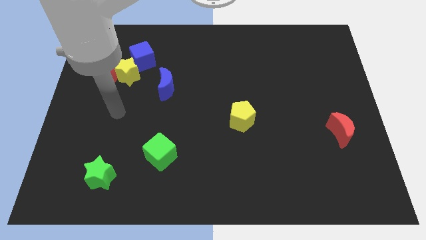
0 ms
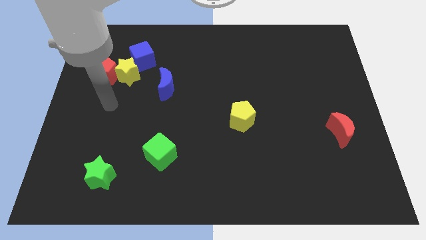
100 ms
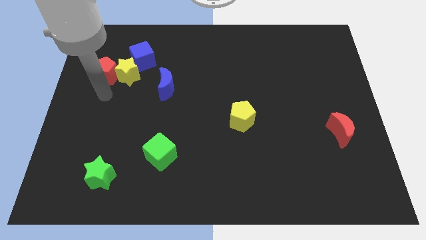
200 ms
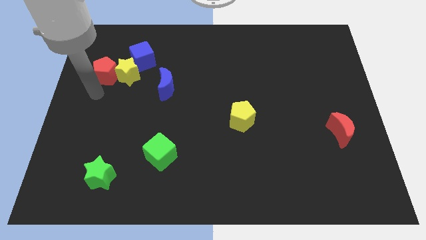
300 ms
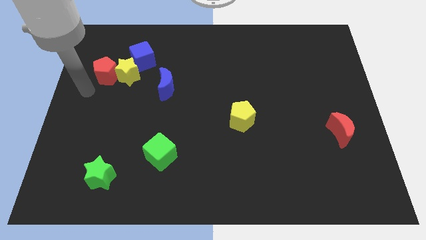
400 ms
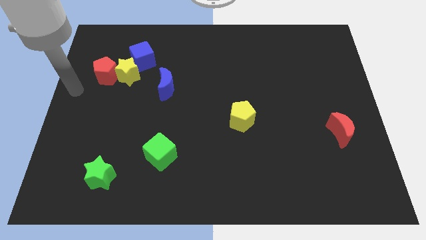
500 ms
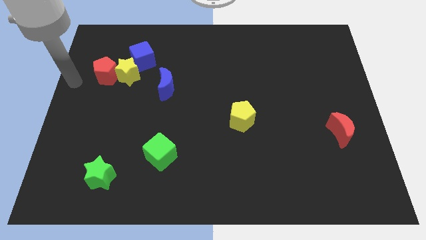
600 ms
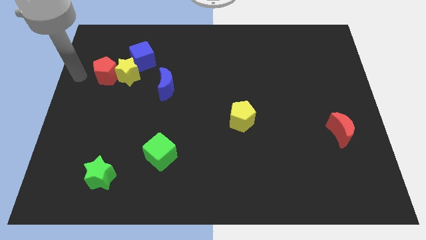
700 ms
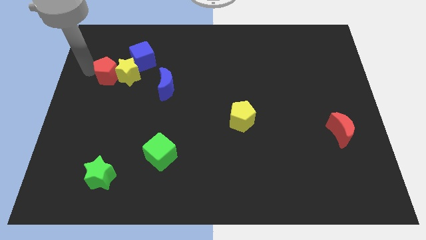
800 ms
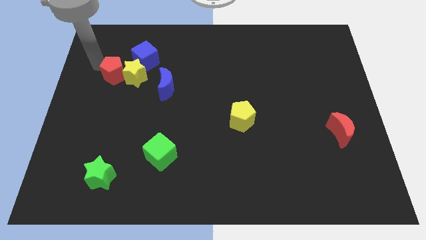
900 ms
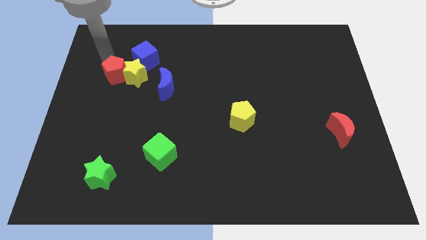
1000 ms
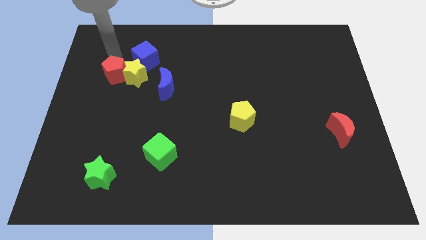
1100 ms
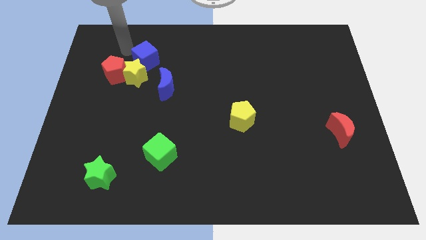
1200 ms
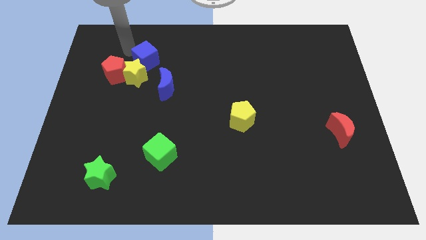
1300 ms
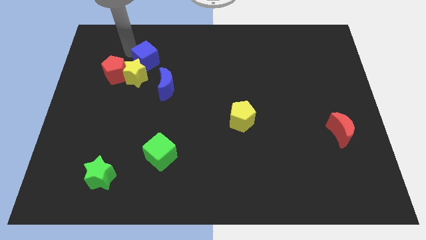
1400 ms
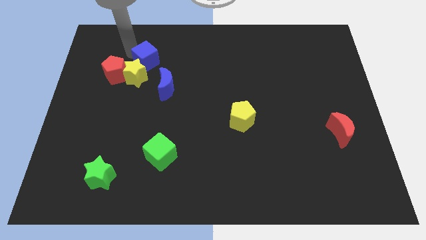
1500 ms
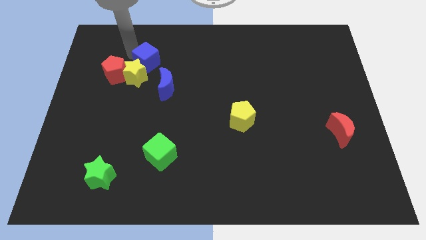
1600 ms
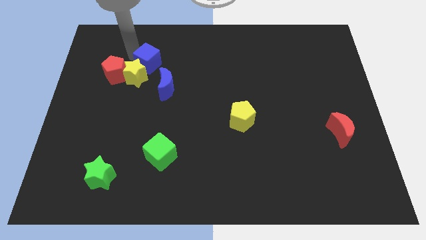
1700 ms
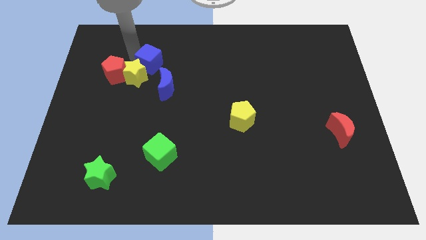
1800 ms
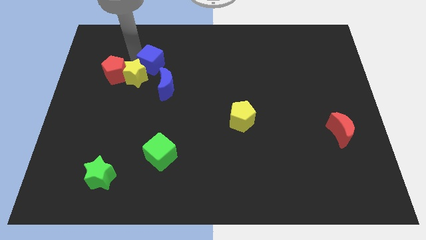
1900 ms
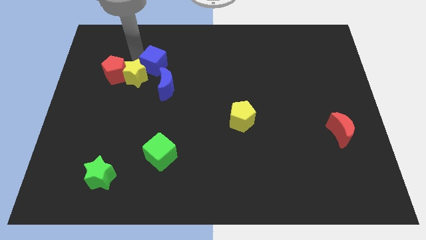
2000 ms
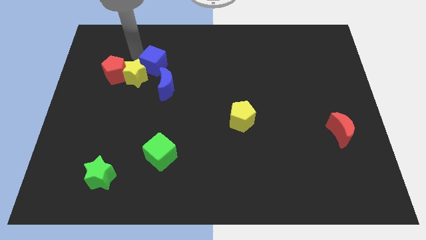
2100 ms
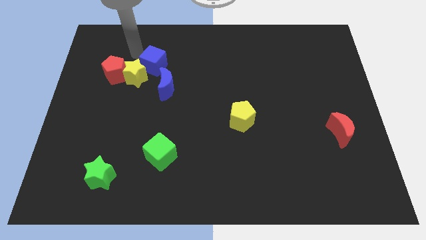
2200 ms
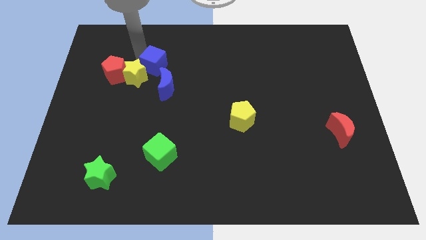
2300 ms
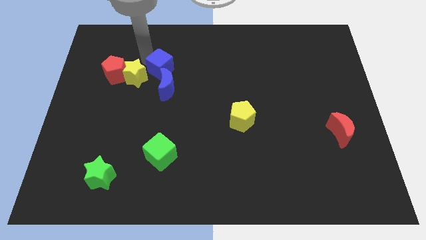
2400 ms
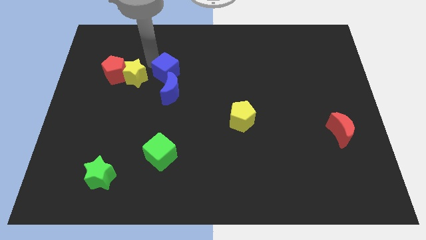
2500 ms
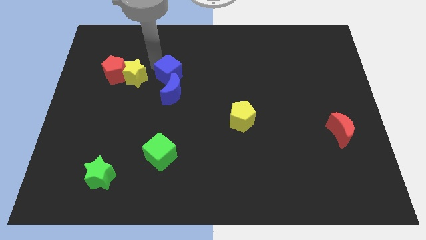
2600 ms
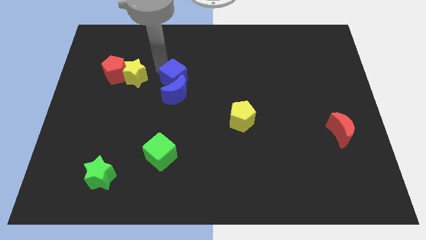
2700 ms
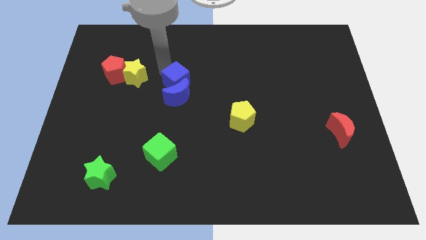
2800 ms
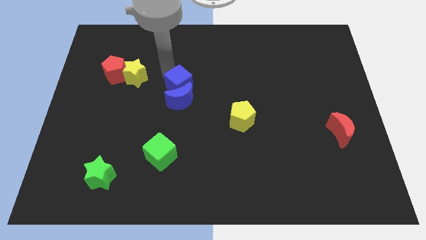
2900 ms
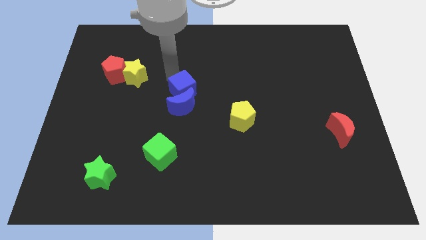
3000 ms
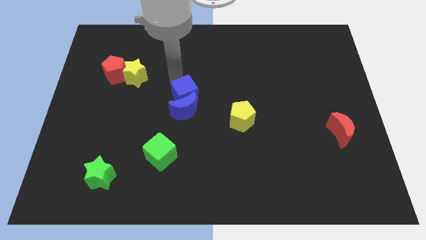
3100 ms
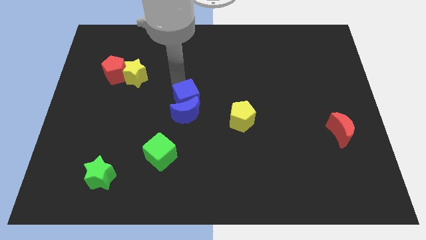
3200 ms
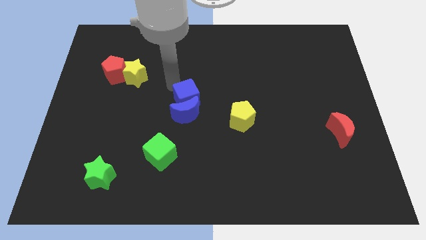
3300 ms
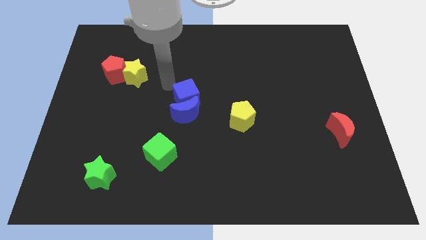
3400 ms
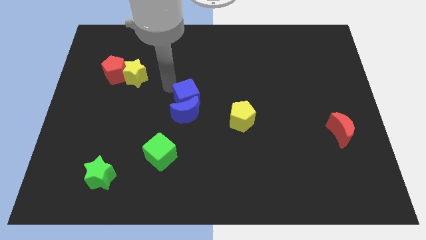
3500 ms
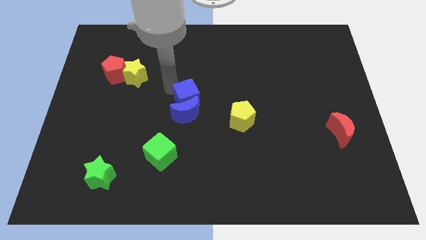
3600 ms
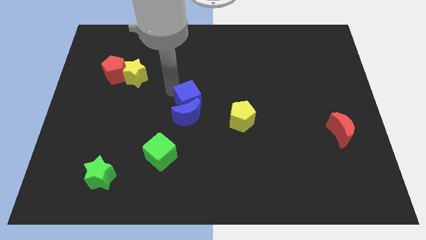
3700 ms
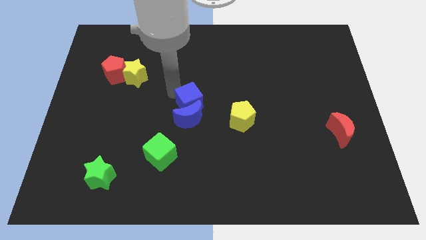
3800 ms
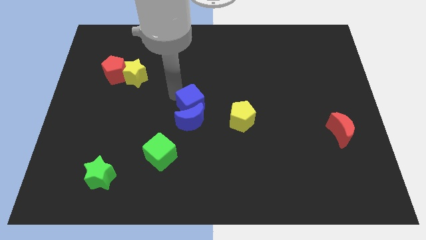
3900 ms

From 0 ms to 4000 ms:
move the blue cube diagonally down and to the right

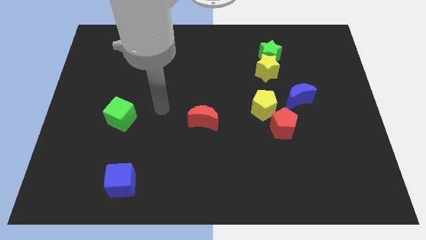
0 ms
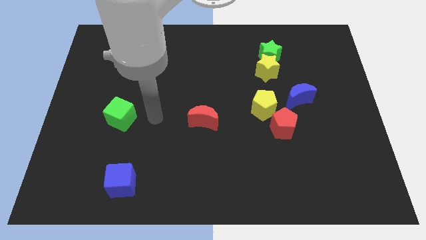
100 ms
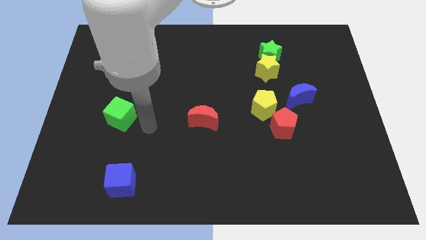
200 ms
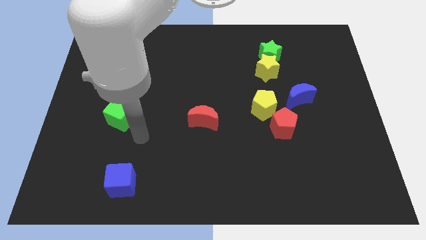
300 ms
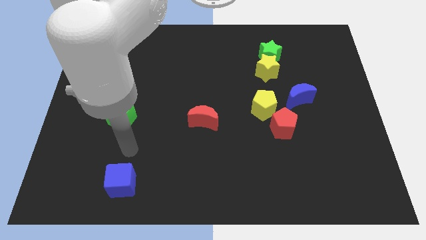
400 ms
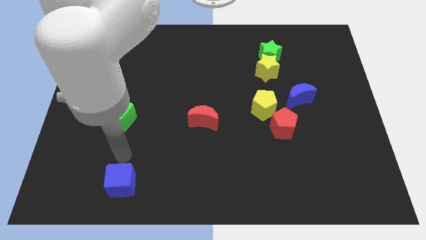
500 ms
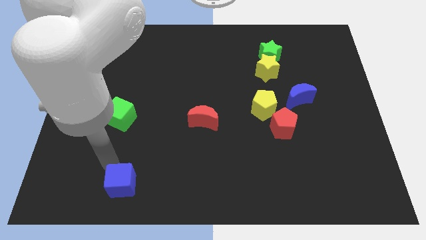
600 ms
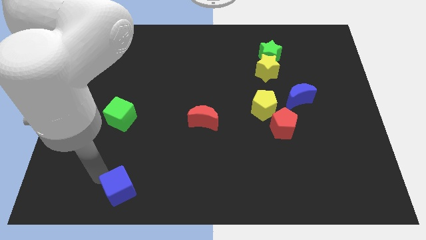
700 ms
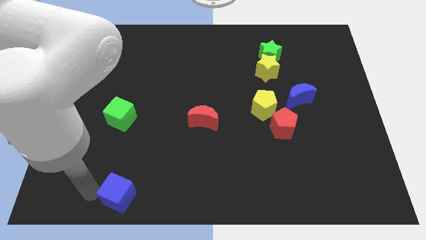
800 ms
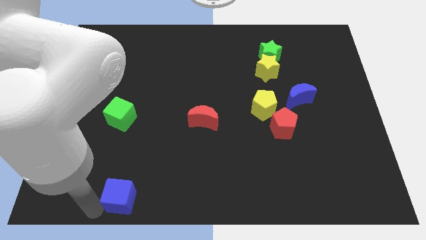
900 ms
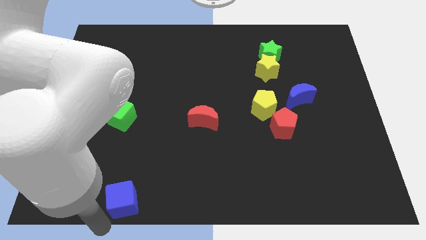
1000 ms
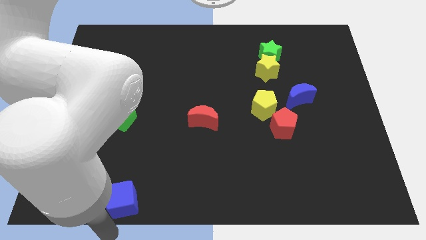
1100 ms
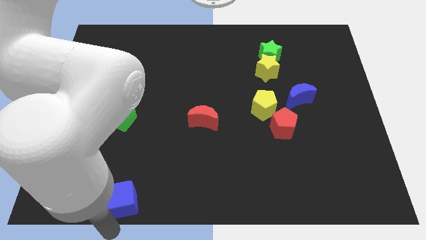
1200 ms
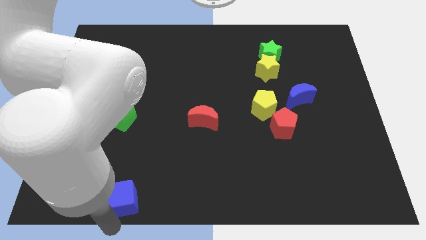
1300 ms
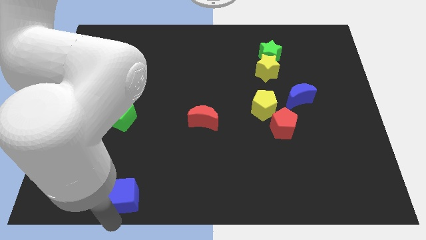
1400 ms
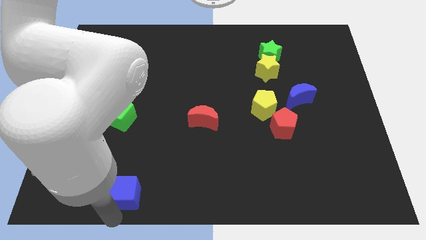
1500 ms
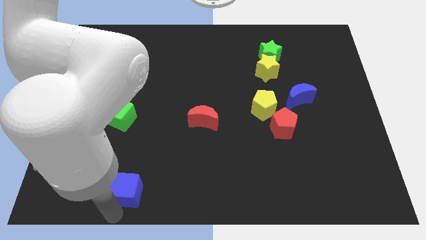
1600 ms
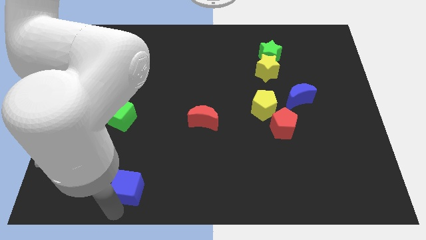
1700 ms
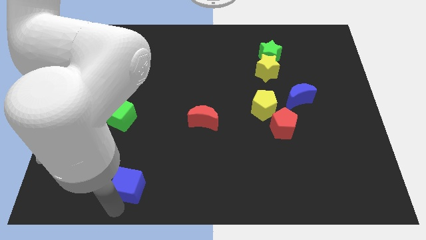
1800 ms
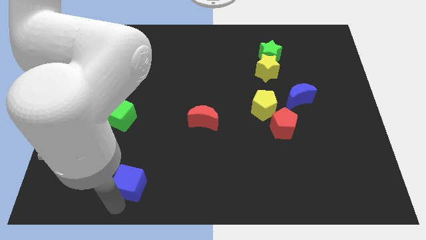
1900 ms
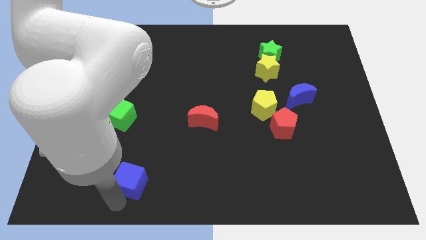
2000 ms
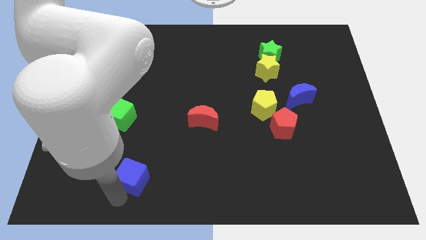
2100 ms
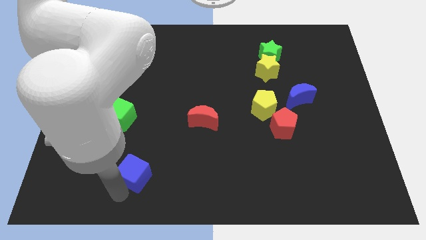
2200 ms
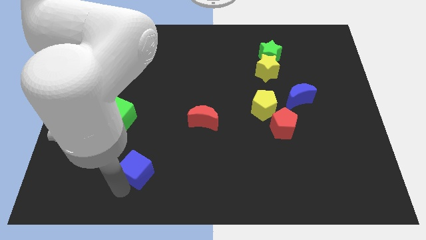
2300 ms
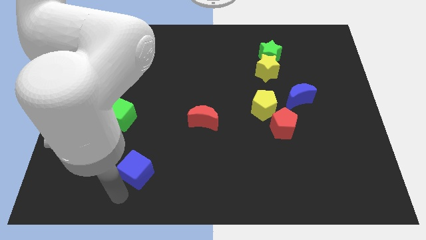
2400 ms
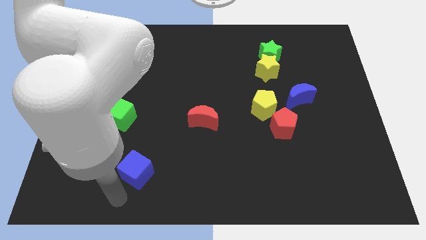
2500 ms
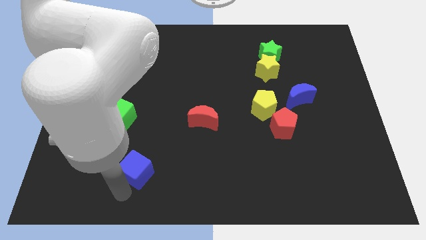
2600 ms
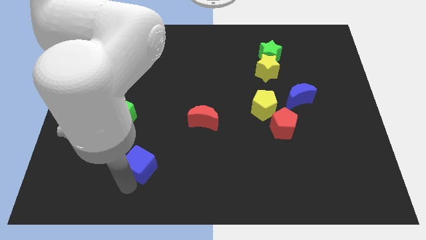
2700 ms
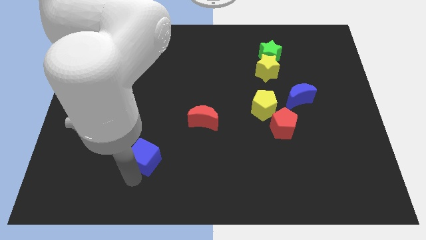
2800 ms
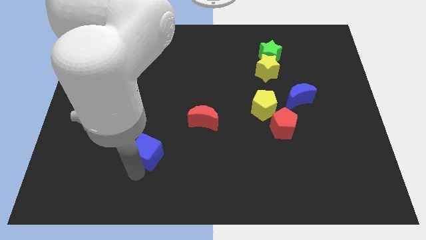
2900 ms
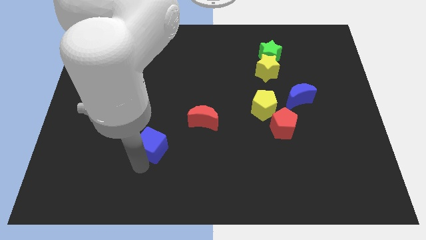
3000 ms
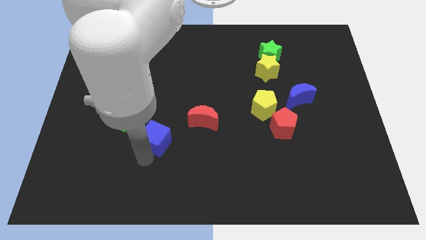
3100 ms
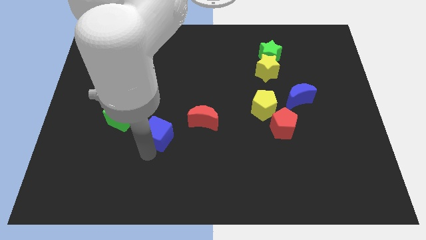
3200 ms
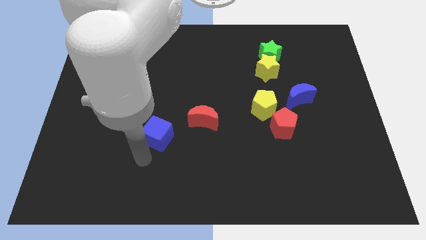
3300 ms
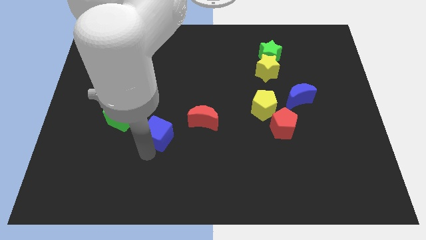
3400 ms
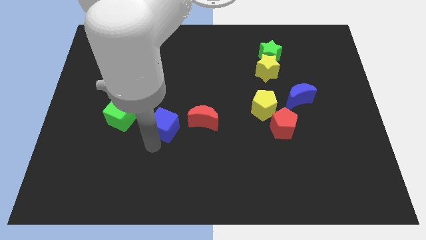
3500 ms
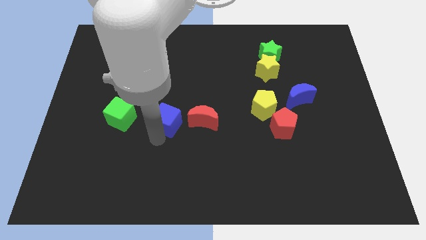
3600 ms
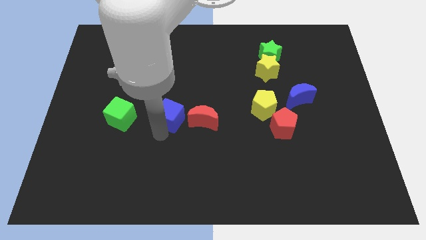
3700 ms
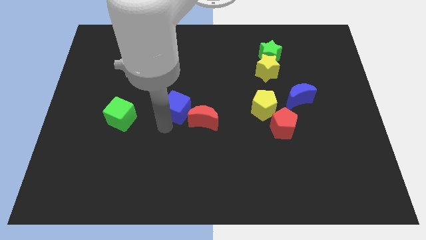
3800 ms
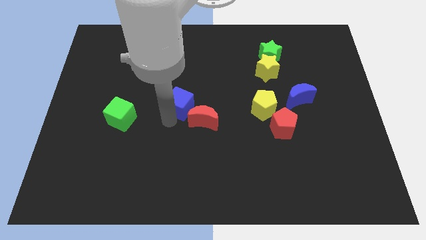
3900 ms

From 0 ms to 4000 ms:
push the blue cube upwards and right diagonally
